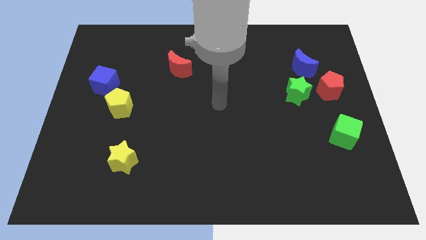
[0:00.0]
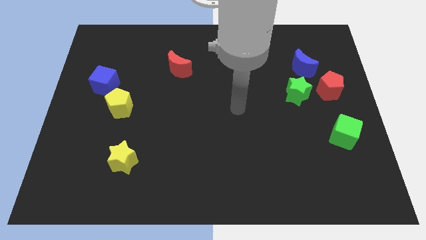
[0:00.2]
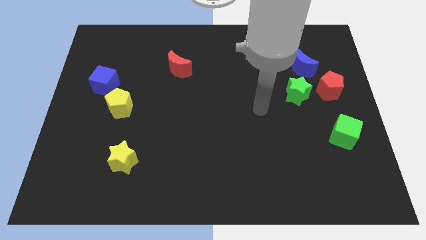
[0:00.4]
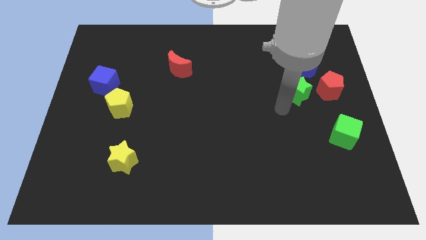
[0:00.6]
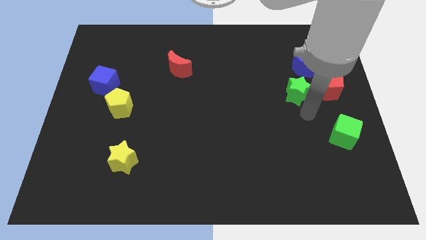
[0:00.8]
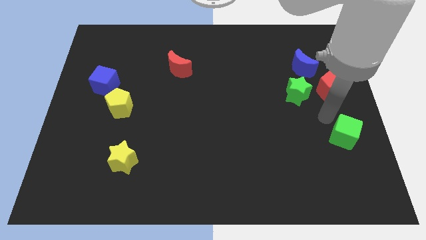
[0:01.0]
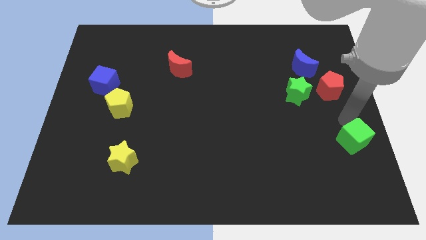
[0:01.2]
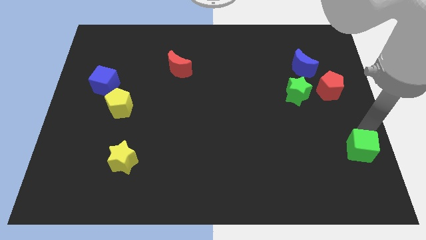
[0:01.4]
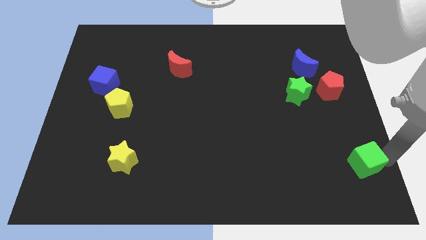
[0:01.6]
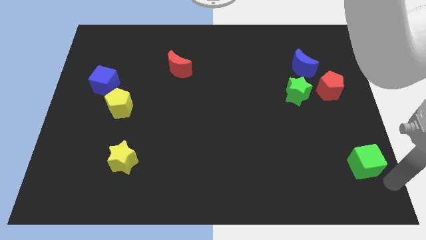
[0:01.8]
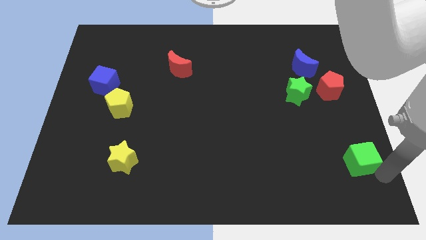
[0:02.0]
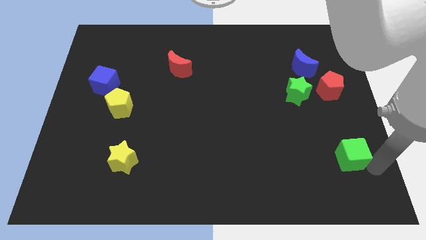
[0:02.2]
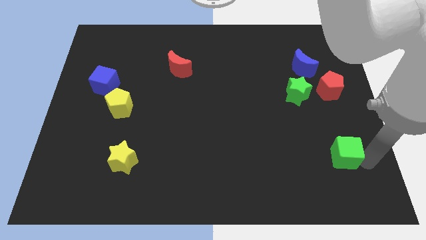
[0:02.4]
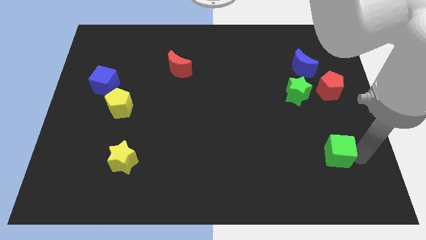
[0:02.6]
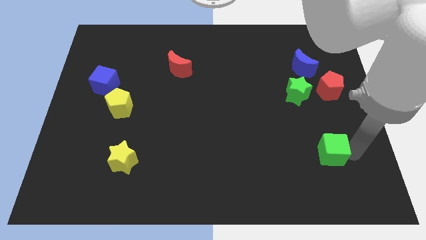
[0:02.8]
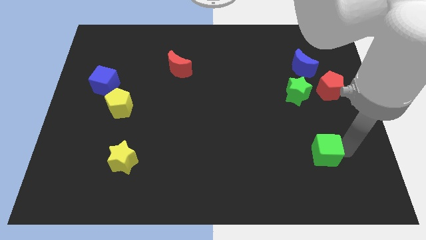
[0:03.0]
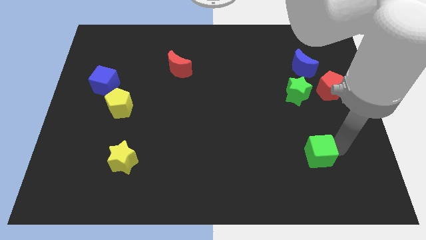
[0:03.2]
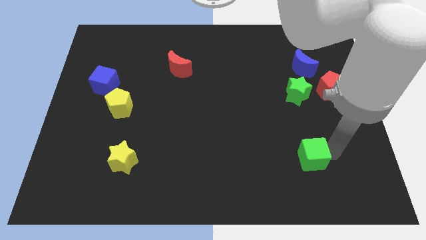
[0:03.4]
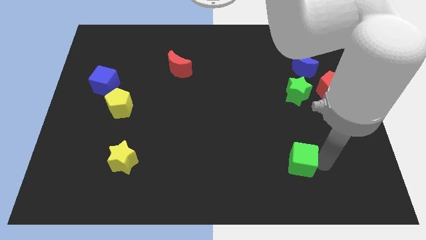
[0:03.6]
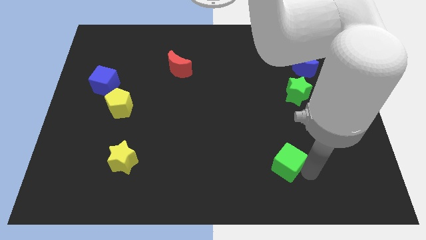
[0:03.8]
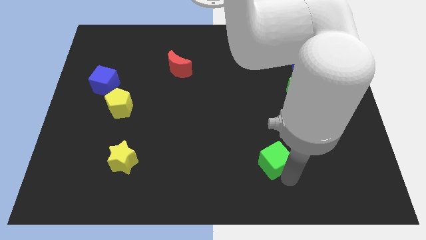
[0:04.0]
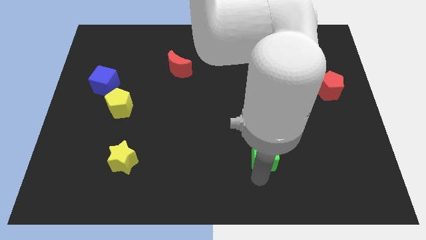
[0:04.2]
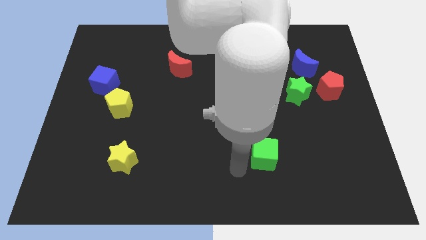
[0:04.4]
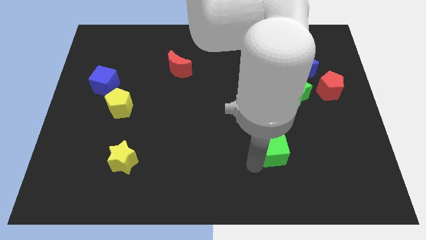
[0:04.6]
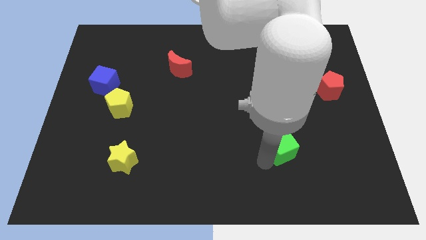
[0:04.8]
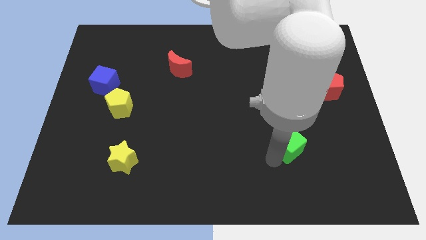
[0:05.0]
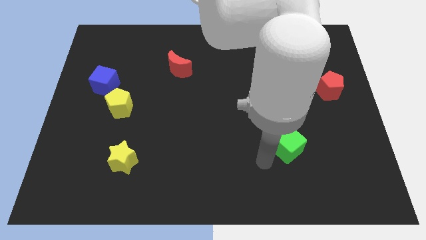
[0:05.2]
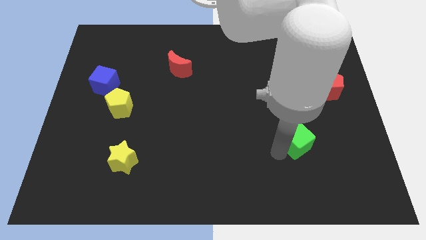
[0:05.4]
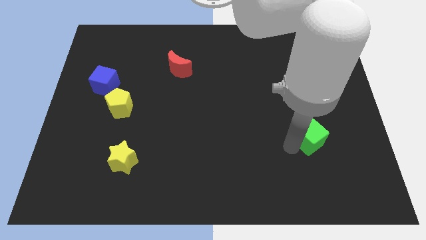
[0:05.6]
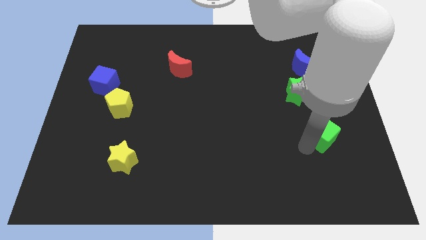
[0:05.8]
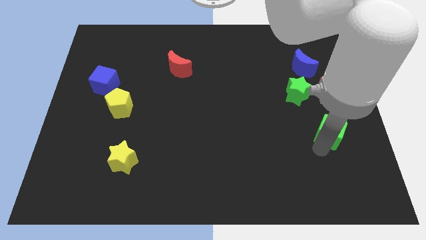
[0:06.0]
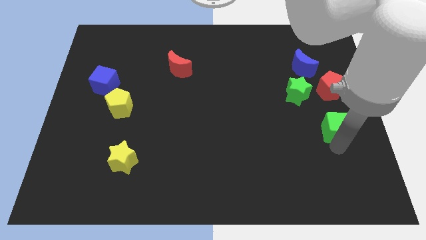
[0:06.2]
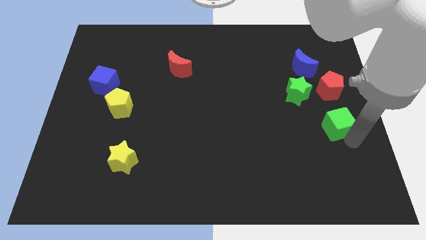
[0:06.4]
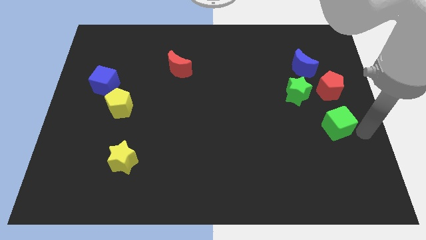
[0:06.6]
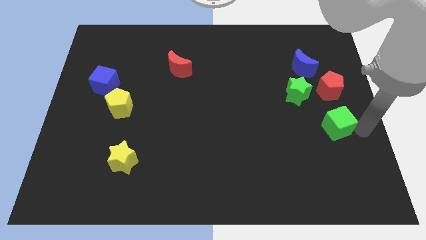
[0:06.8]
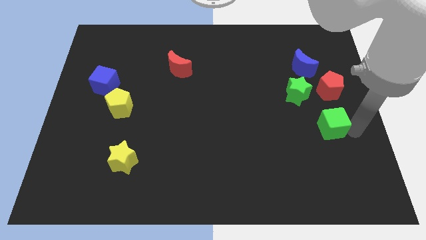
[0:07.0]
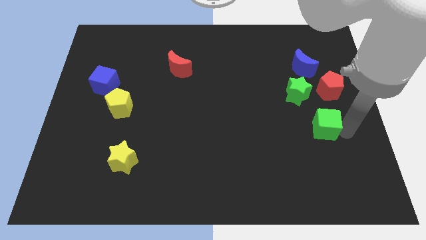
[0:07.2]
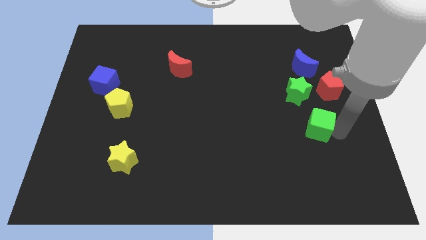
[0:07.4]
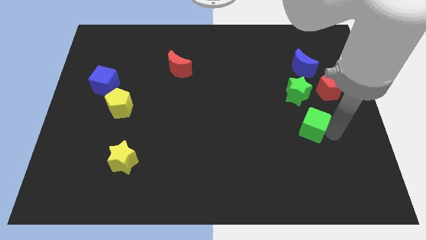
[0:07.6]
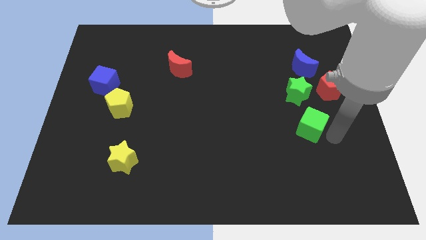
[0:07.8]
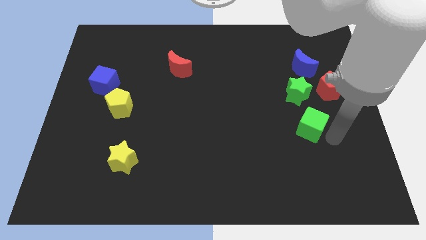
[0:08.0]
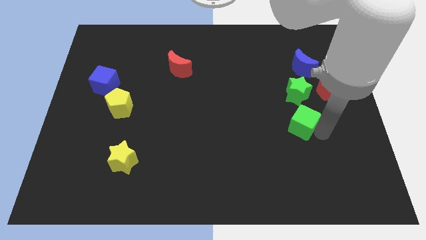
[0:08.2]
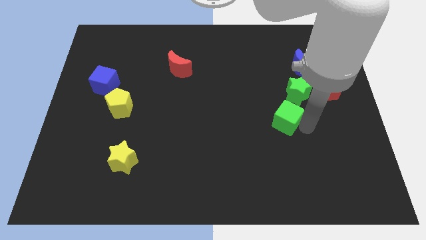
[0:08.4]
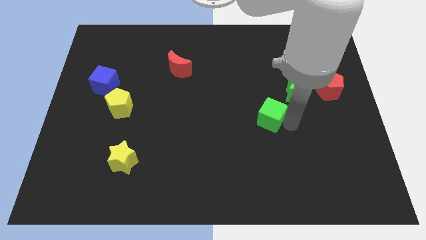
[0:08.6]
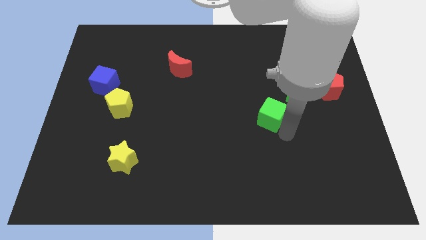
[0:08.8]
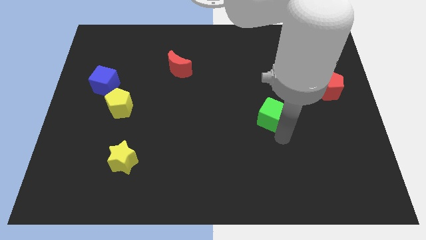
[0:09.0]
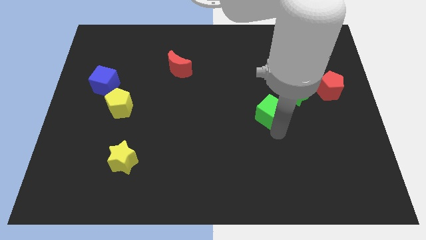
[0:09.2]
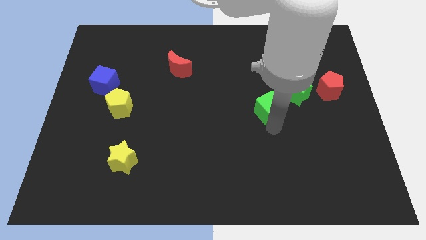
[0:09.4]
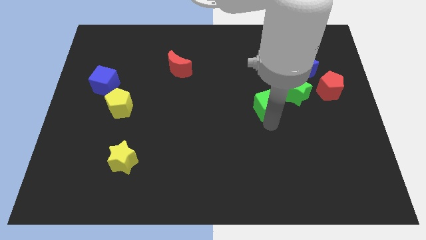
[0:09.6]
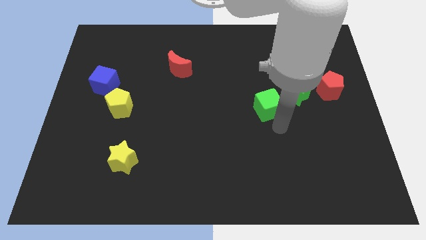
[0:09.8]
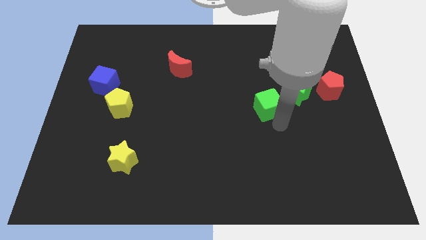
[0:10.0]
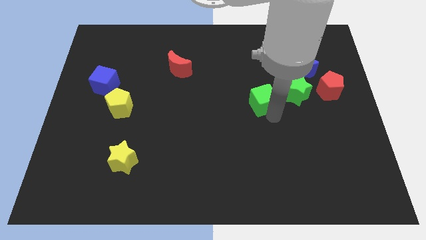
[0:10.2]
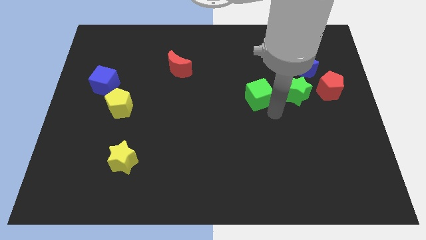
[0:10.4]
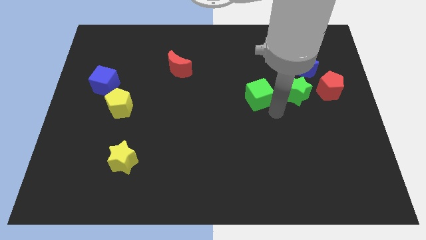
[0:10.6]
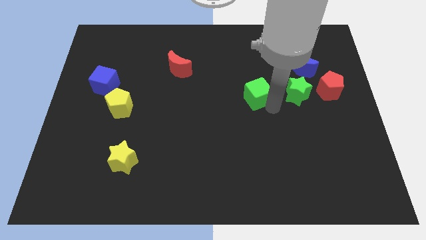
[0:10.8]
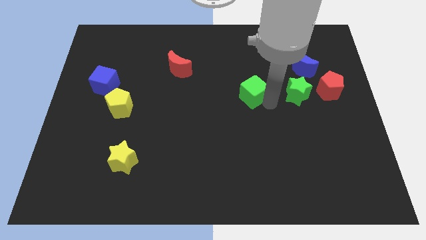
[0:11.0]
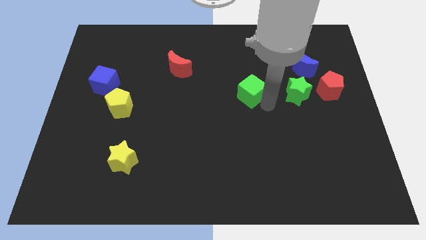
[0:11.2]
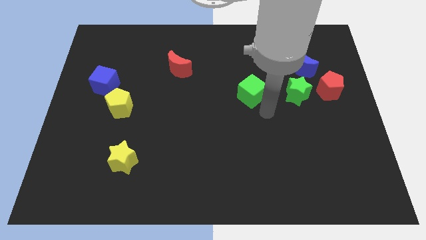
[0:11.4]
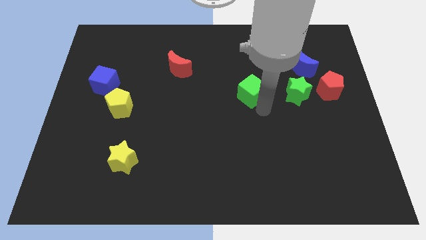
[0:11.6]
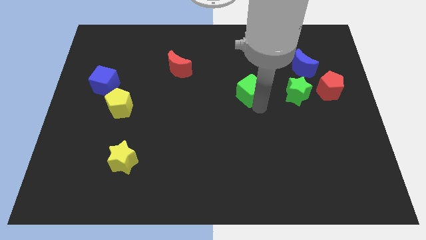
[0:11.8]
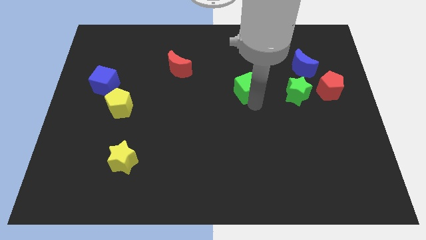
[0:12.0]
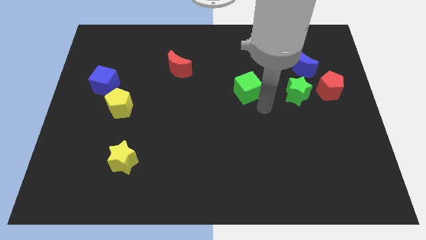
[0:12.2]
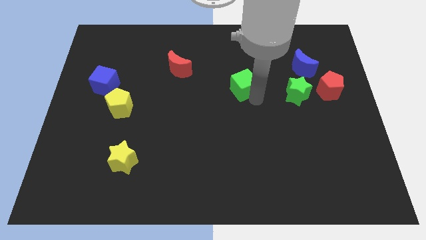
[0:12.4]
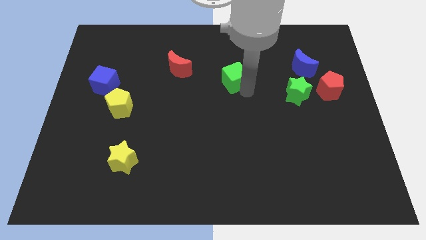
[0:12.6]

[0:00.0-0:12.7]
push the green cube right of the red moon

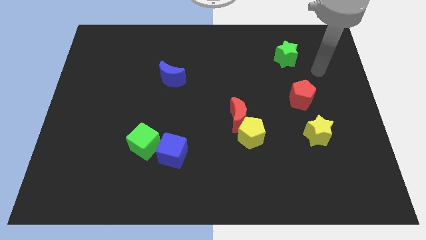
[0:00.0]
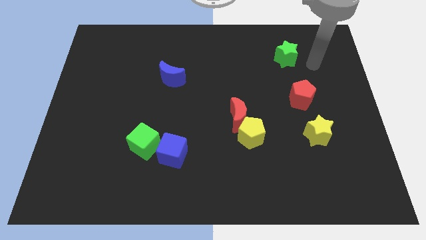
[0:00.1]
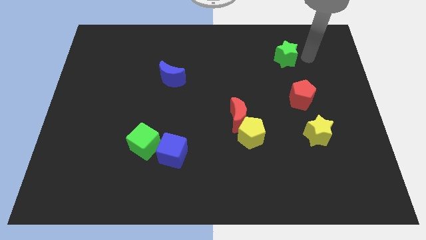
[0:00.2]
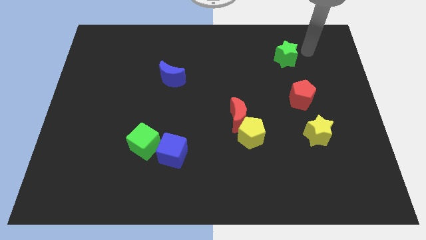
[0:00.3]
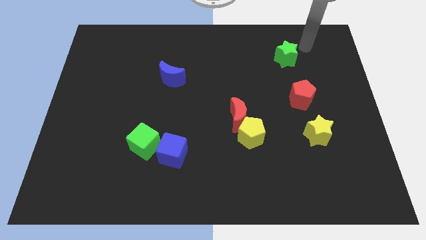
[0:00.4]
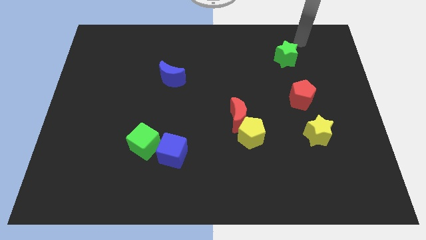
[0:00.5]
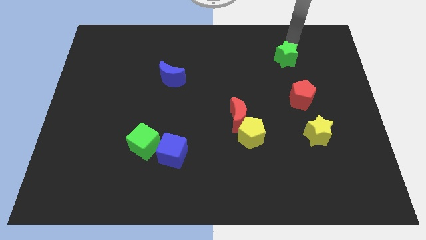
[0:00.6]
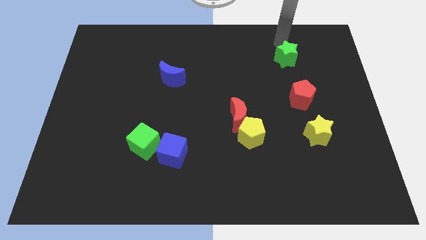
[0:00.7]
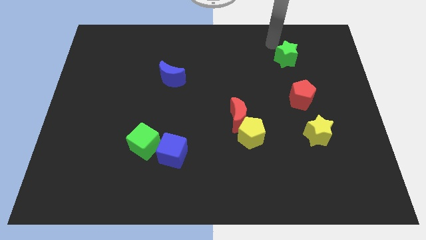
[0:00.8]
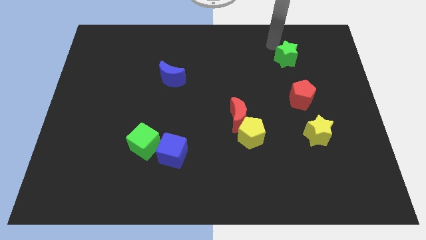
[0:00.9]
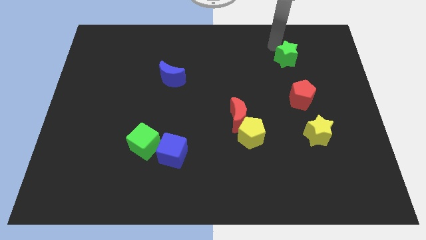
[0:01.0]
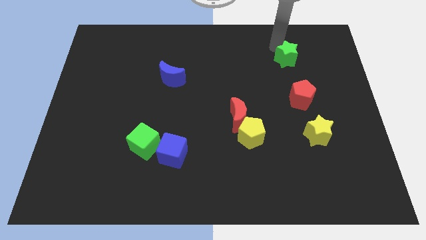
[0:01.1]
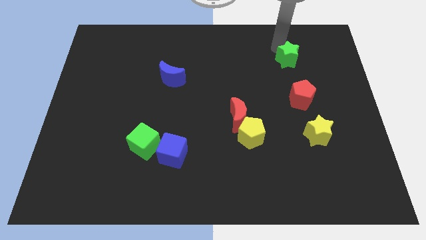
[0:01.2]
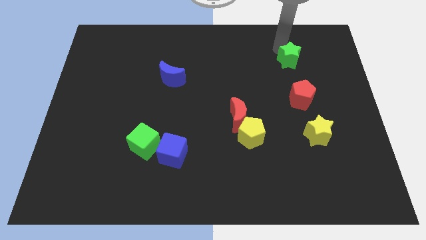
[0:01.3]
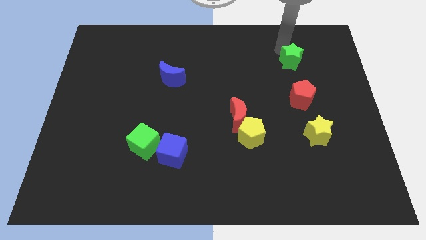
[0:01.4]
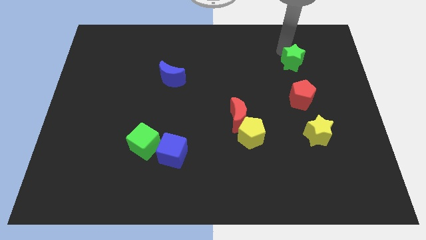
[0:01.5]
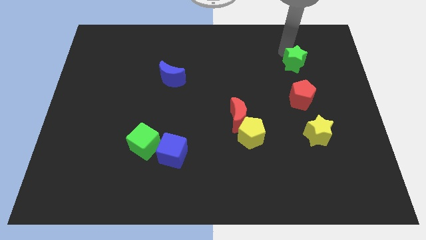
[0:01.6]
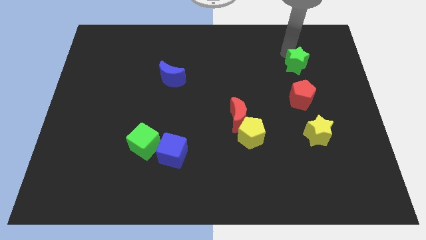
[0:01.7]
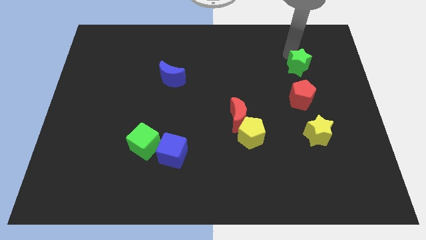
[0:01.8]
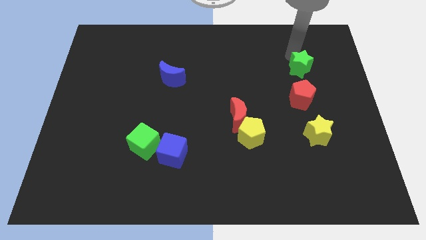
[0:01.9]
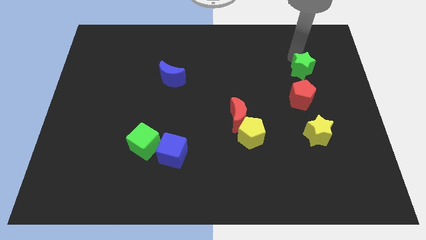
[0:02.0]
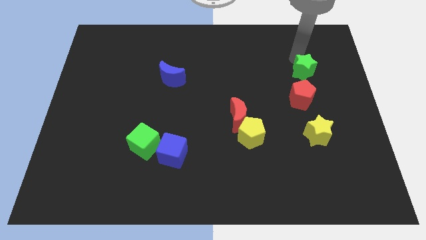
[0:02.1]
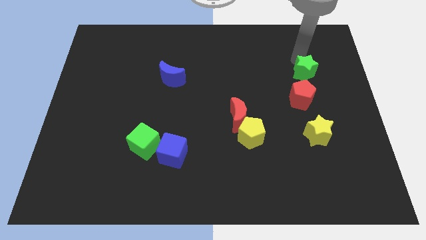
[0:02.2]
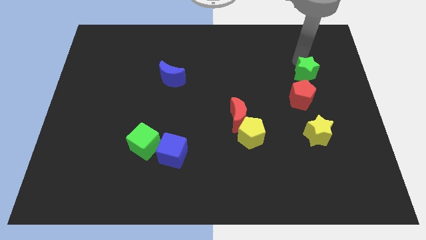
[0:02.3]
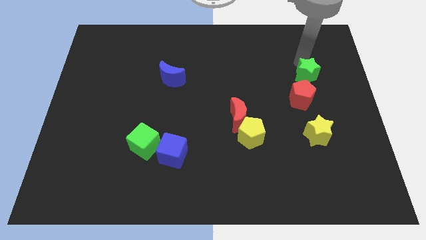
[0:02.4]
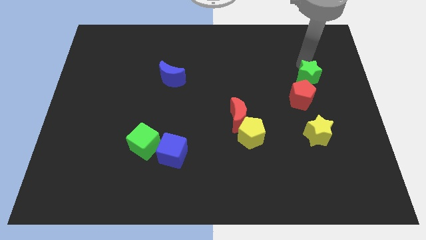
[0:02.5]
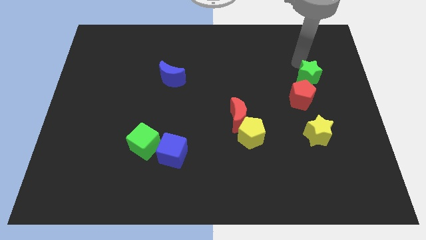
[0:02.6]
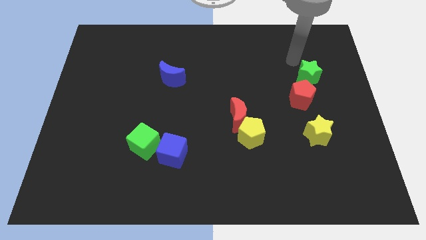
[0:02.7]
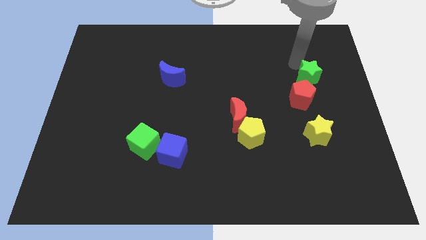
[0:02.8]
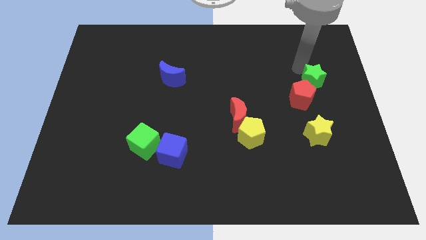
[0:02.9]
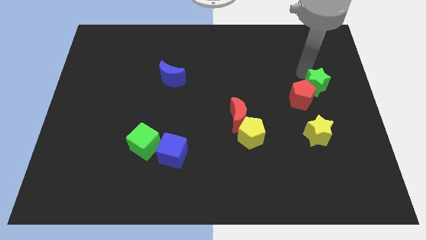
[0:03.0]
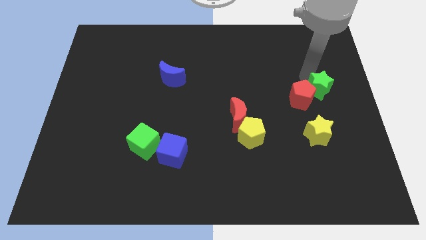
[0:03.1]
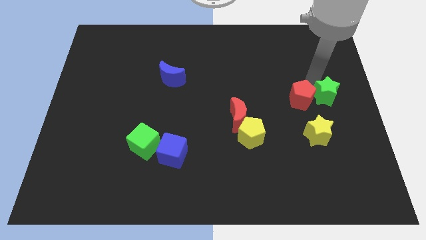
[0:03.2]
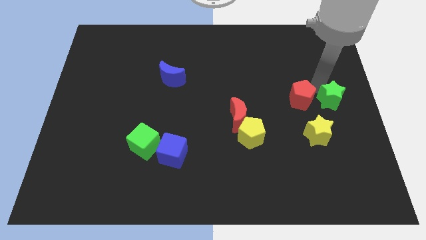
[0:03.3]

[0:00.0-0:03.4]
slide the green star to the top right of the yellow star
